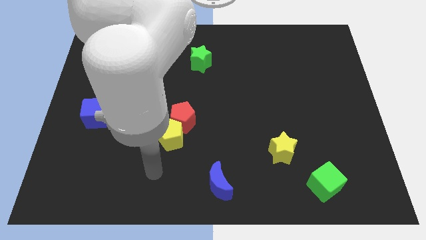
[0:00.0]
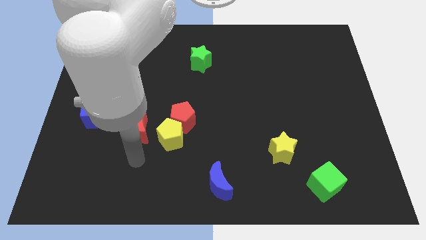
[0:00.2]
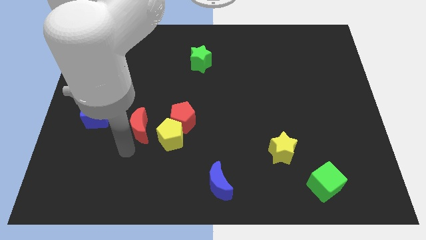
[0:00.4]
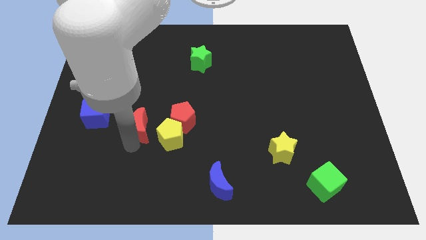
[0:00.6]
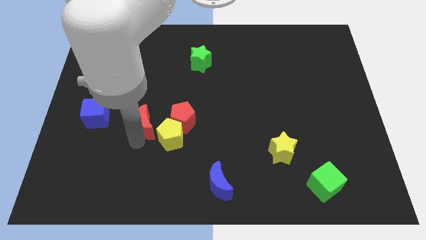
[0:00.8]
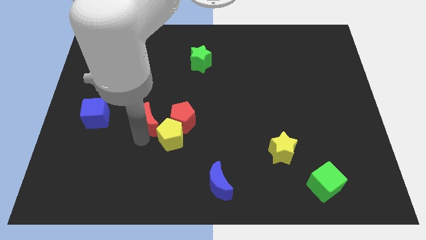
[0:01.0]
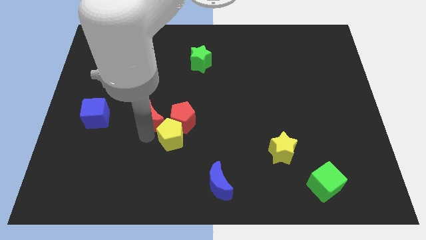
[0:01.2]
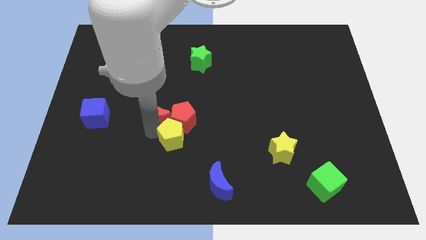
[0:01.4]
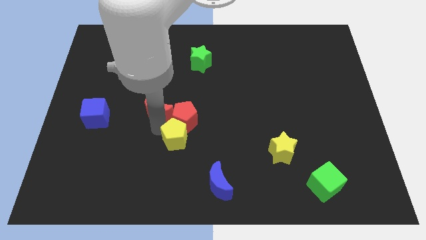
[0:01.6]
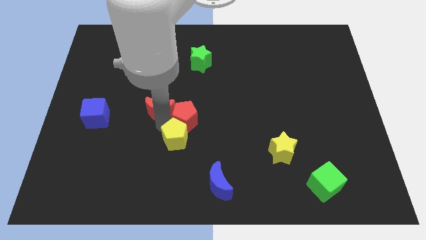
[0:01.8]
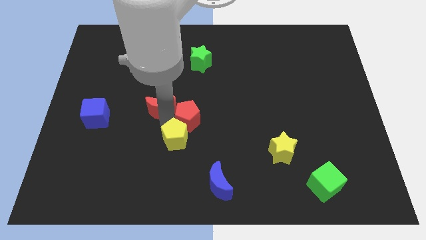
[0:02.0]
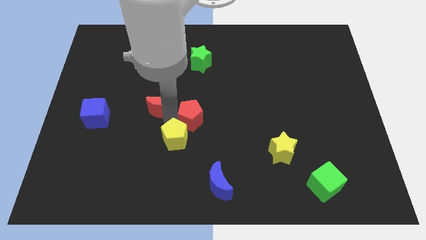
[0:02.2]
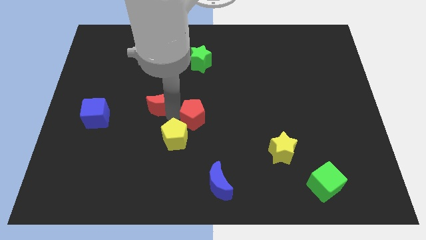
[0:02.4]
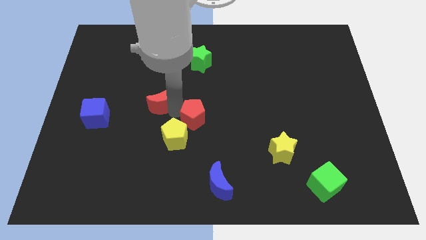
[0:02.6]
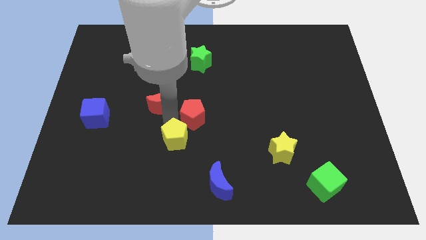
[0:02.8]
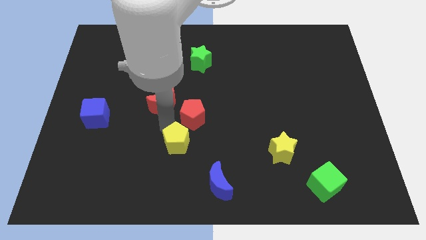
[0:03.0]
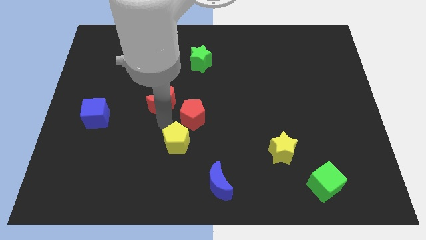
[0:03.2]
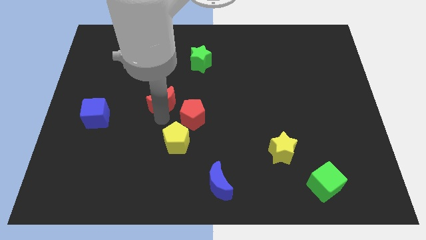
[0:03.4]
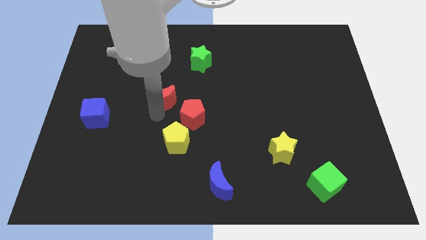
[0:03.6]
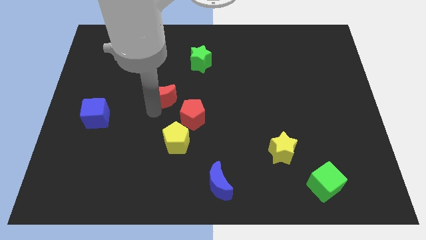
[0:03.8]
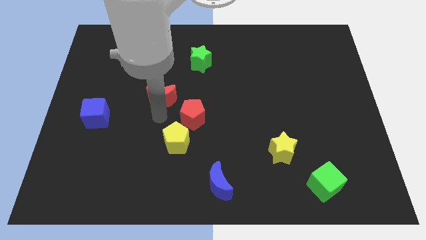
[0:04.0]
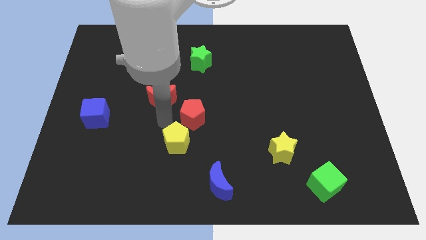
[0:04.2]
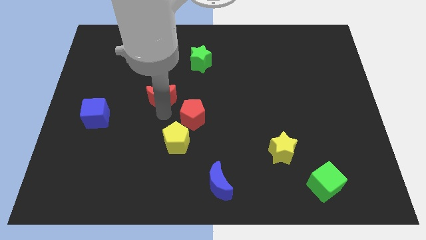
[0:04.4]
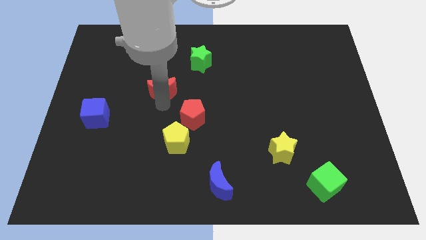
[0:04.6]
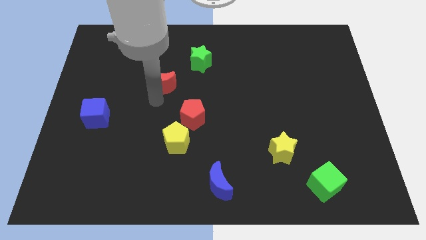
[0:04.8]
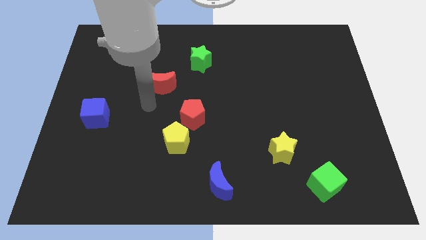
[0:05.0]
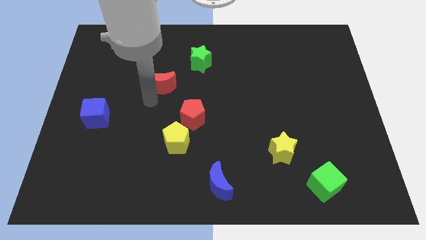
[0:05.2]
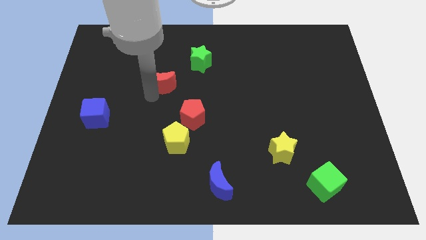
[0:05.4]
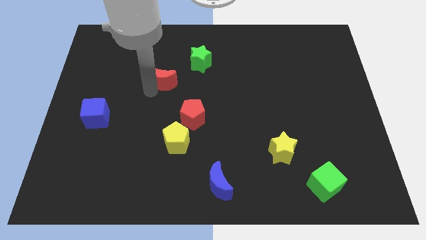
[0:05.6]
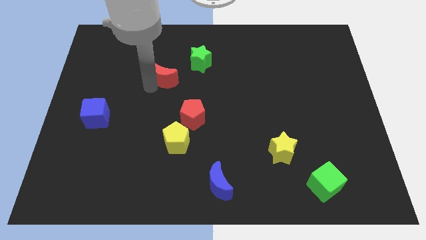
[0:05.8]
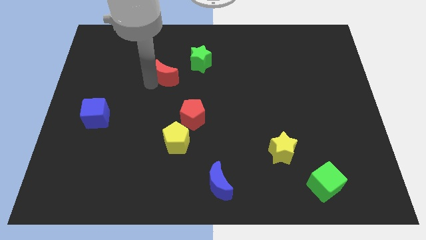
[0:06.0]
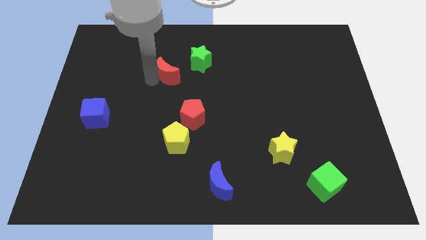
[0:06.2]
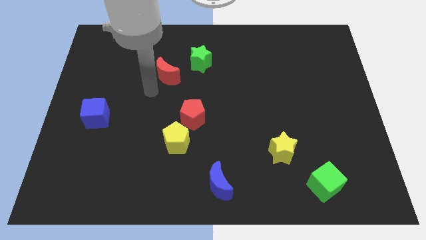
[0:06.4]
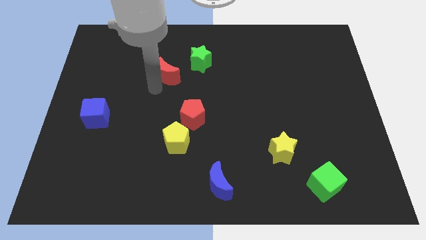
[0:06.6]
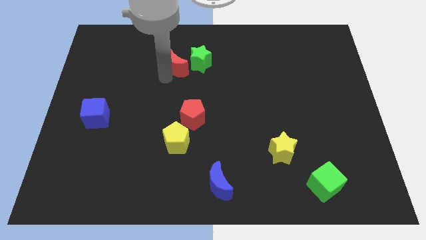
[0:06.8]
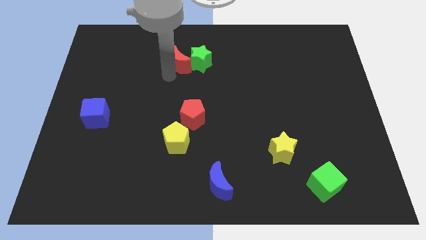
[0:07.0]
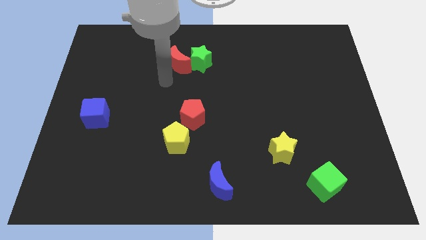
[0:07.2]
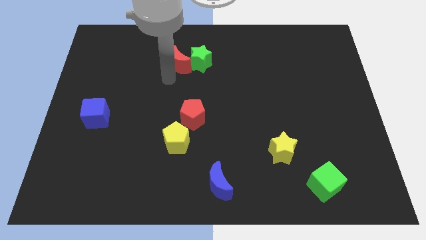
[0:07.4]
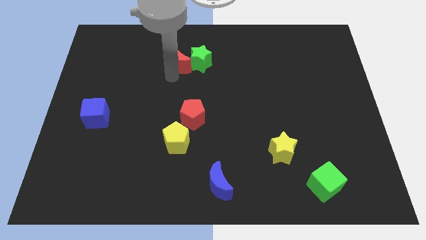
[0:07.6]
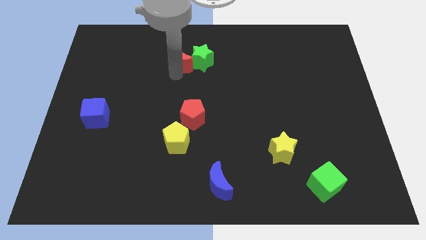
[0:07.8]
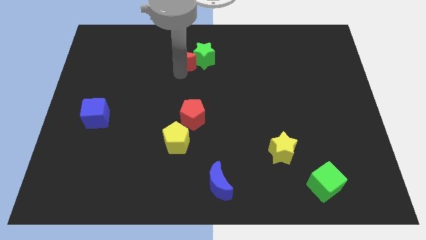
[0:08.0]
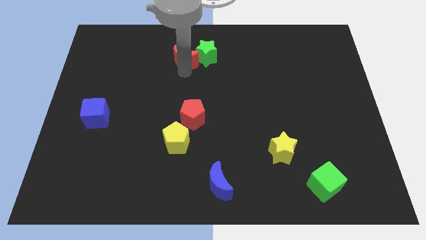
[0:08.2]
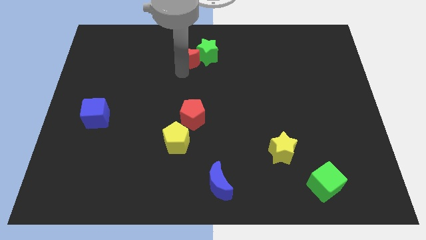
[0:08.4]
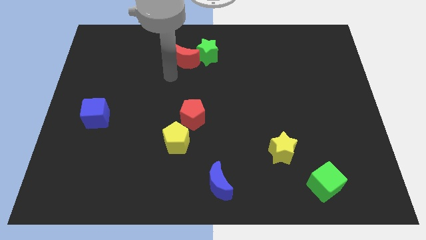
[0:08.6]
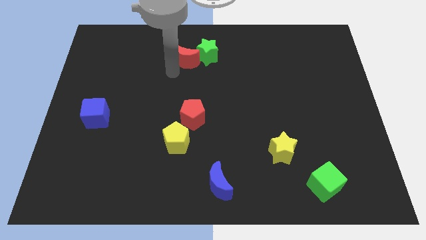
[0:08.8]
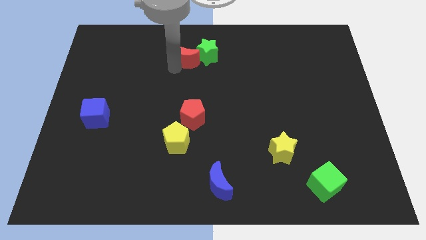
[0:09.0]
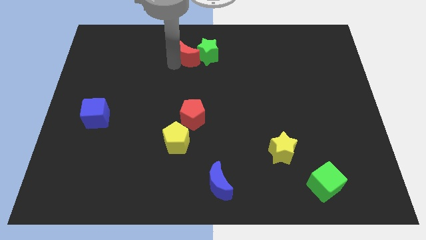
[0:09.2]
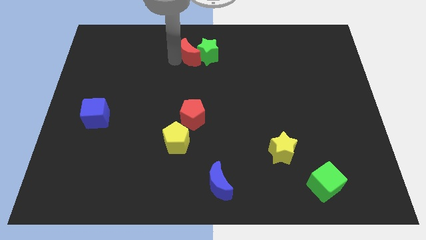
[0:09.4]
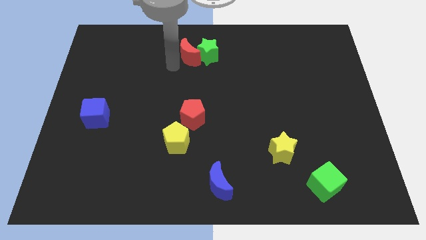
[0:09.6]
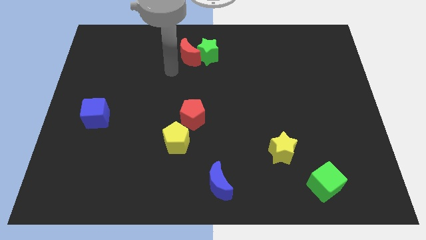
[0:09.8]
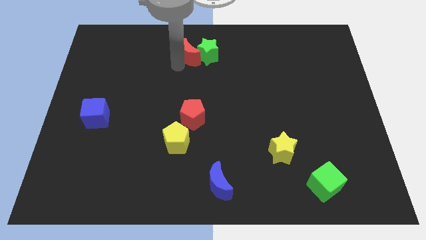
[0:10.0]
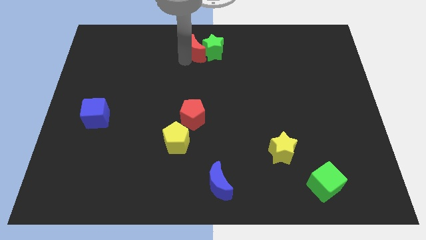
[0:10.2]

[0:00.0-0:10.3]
move the red moon to the towards your base
